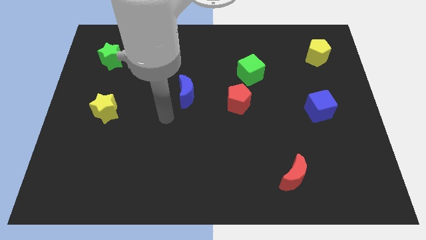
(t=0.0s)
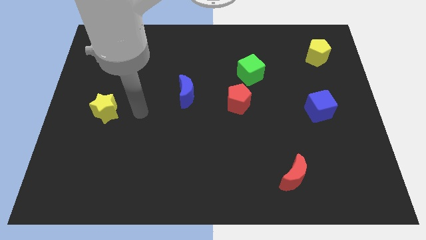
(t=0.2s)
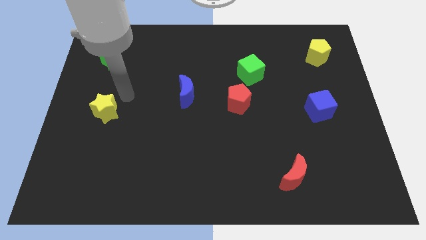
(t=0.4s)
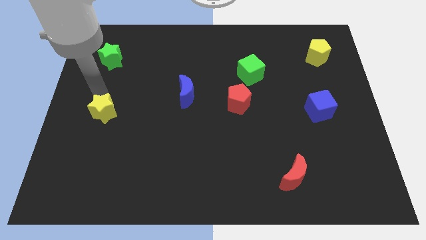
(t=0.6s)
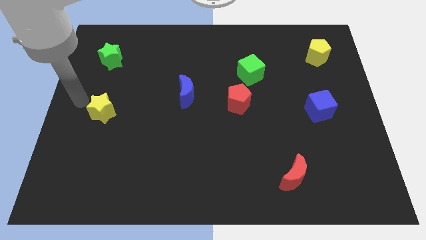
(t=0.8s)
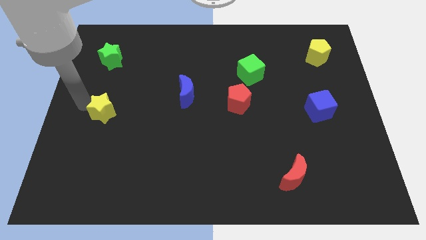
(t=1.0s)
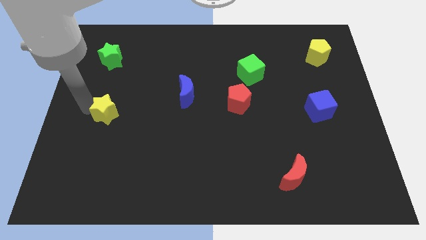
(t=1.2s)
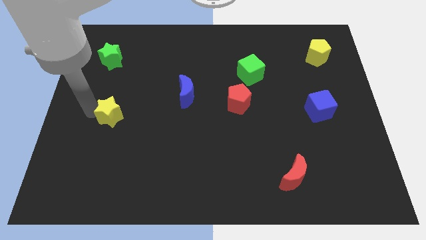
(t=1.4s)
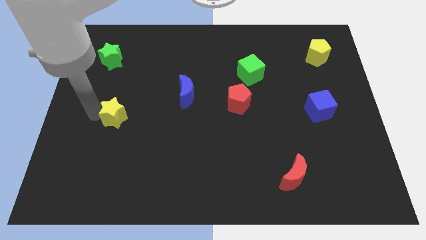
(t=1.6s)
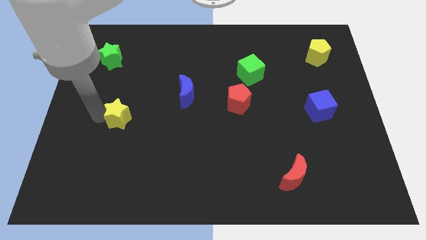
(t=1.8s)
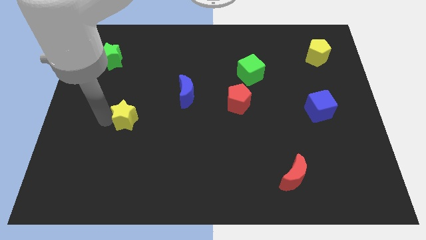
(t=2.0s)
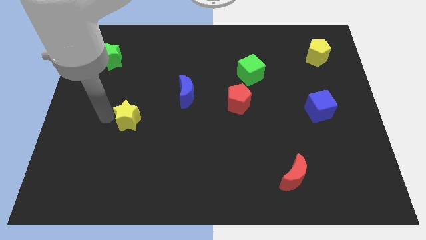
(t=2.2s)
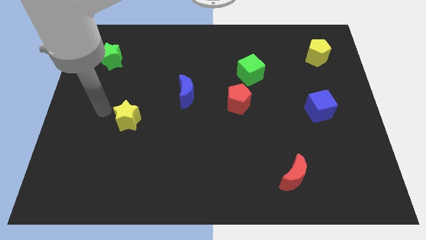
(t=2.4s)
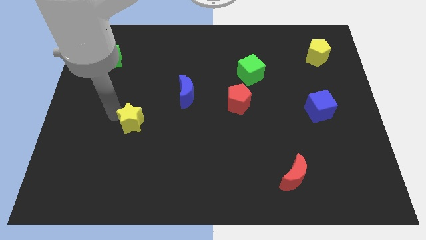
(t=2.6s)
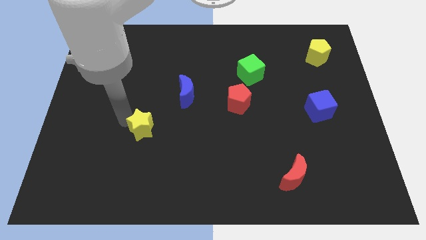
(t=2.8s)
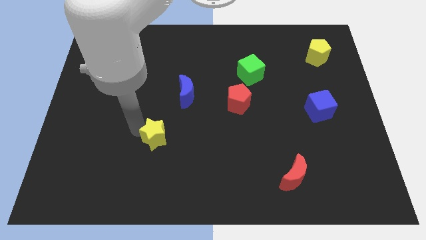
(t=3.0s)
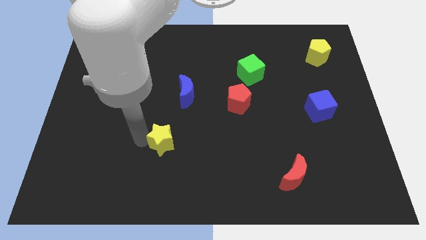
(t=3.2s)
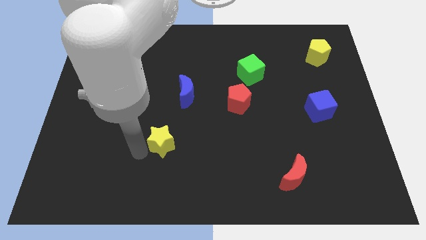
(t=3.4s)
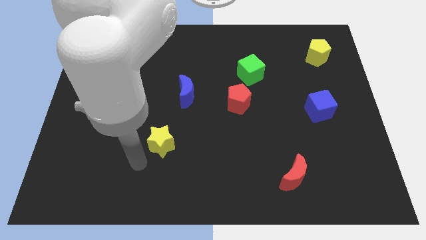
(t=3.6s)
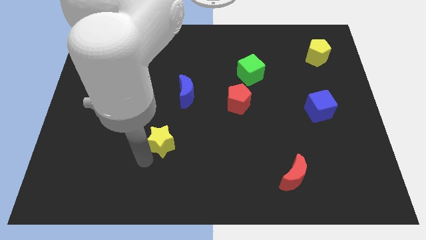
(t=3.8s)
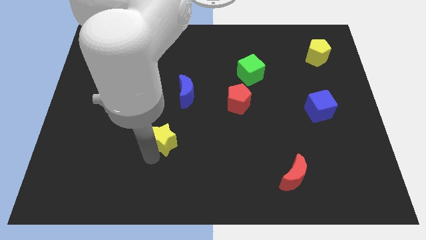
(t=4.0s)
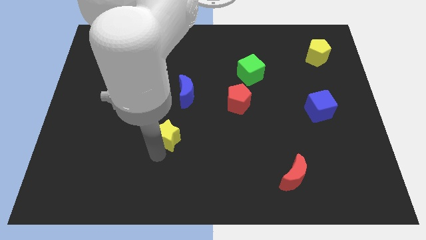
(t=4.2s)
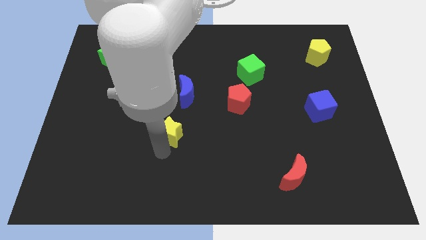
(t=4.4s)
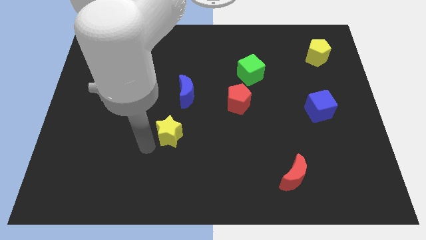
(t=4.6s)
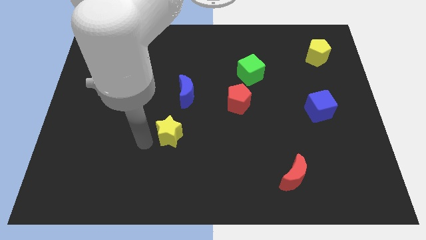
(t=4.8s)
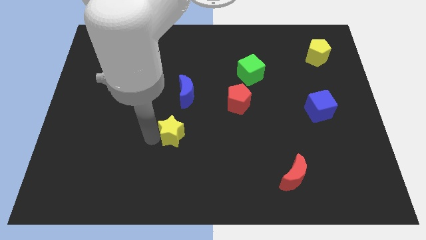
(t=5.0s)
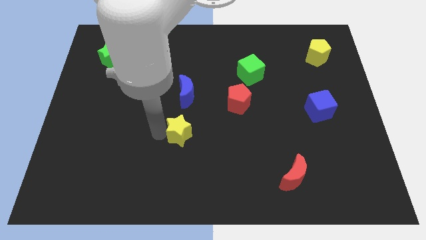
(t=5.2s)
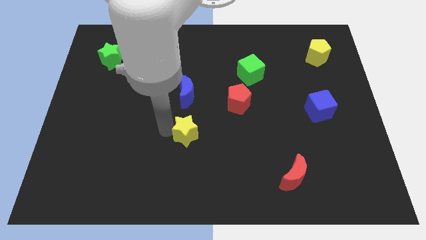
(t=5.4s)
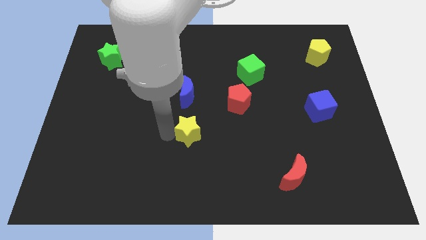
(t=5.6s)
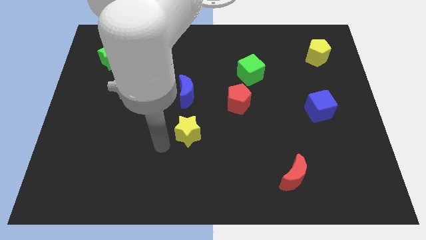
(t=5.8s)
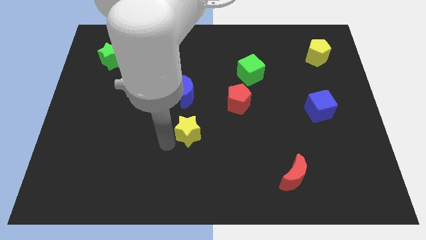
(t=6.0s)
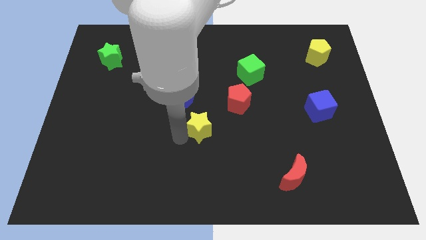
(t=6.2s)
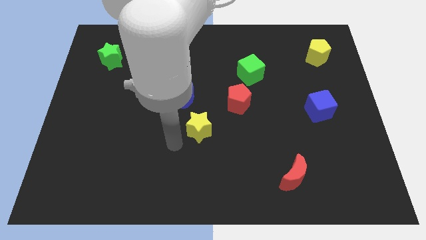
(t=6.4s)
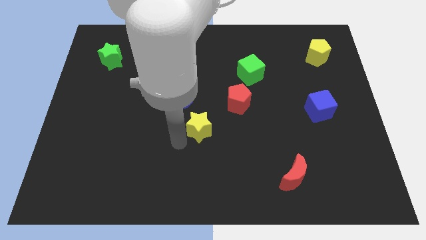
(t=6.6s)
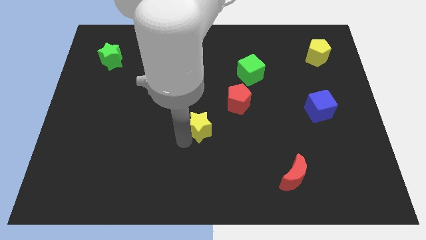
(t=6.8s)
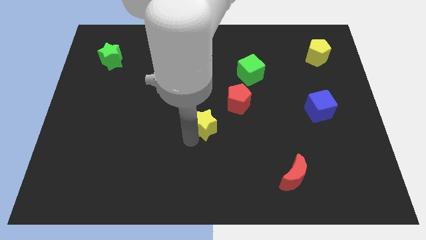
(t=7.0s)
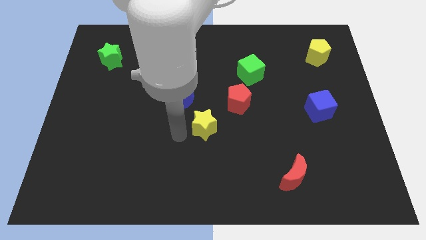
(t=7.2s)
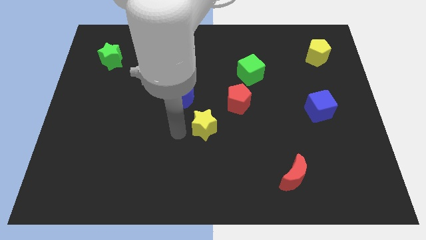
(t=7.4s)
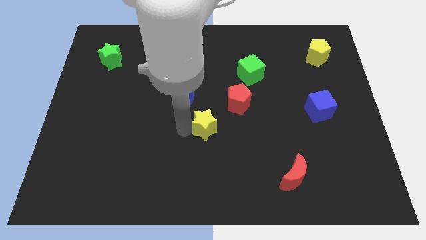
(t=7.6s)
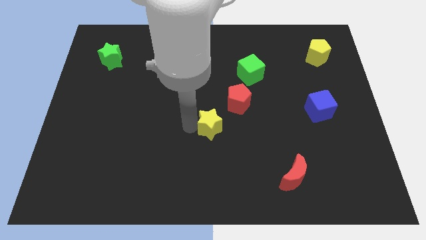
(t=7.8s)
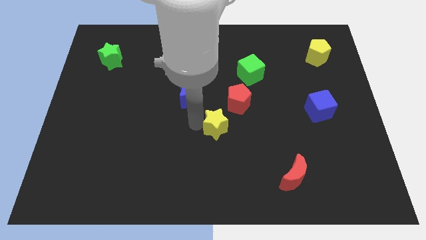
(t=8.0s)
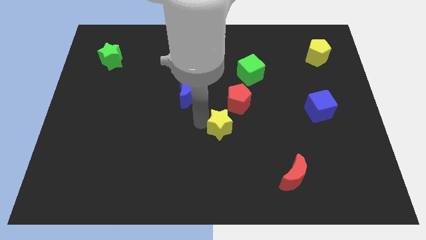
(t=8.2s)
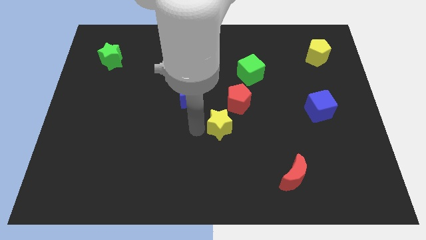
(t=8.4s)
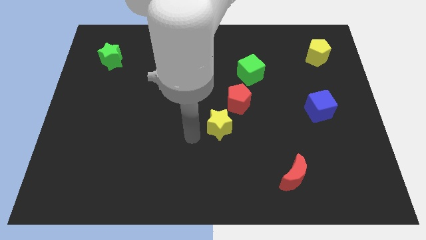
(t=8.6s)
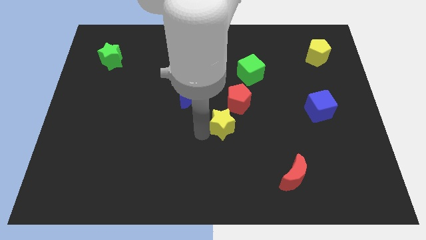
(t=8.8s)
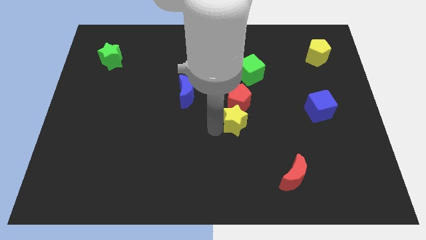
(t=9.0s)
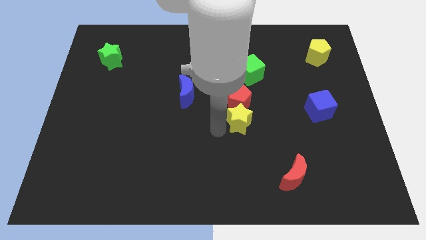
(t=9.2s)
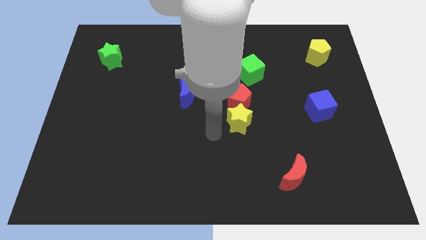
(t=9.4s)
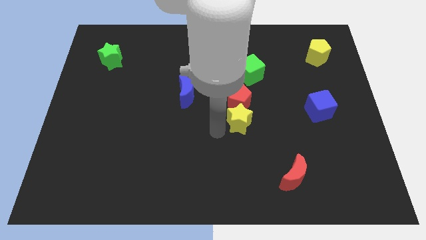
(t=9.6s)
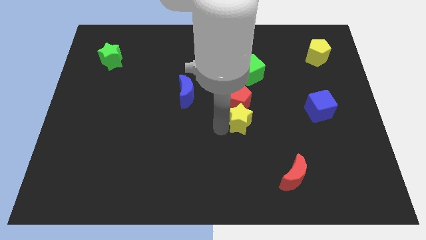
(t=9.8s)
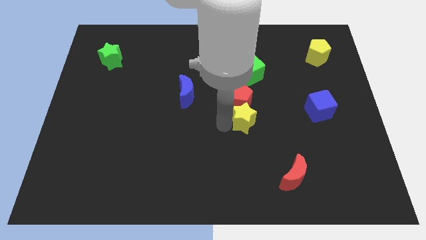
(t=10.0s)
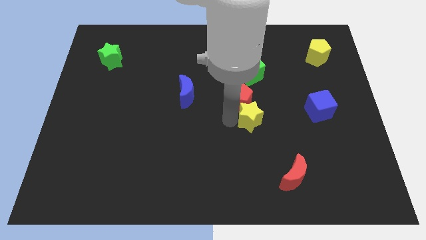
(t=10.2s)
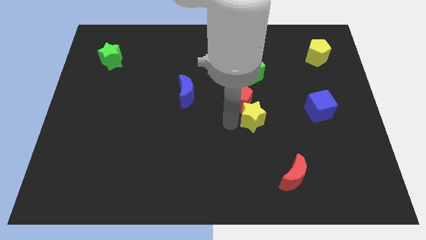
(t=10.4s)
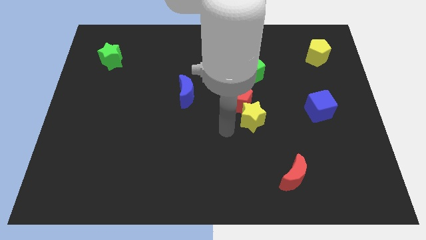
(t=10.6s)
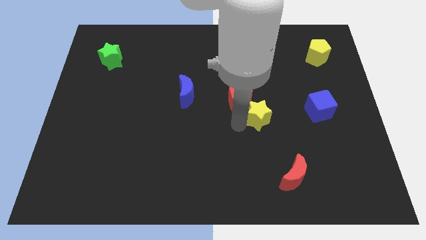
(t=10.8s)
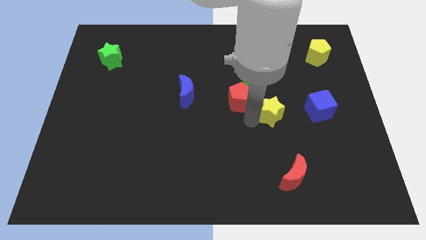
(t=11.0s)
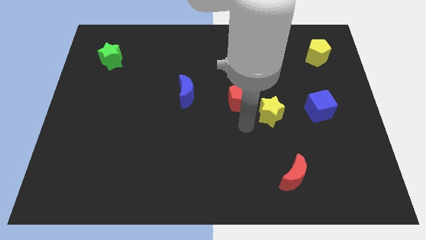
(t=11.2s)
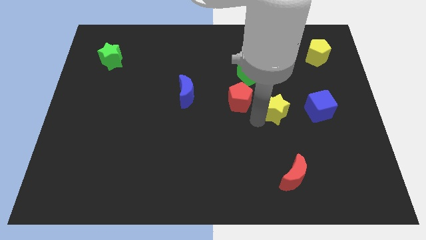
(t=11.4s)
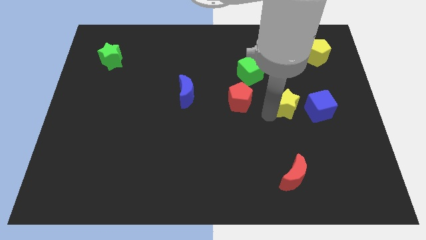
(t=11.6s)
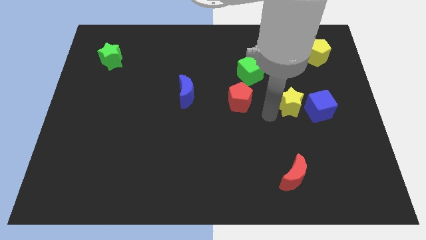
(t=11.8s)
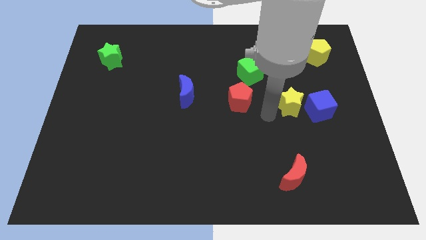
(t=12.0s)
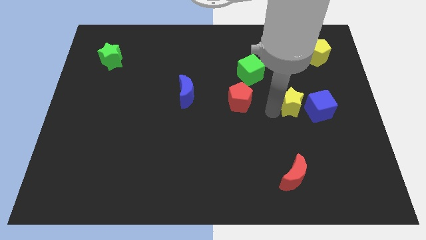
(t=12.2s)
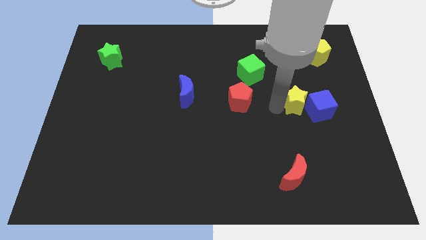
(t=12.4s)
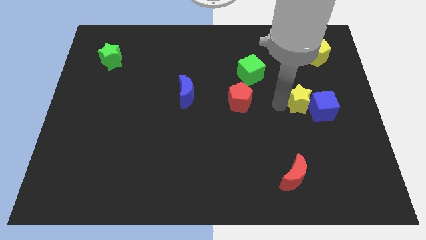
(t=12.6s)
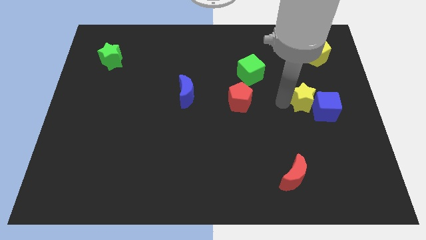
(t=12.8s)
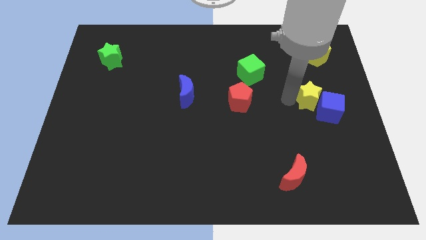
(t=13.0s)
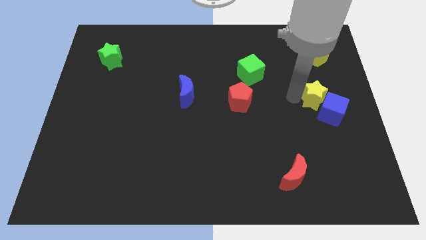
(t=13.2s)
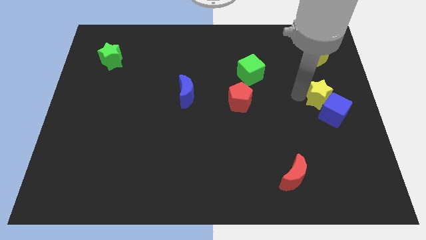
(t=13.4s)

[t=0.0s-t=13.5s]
put the yellow star to the right side

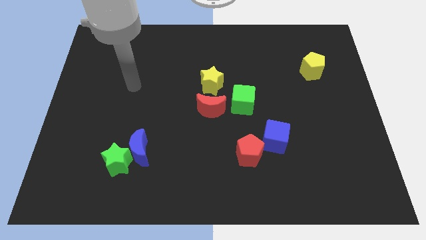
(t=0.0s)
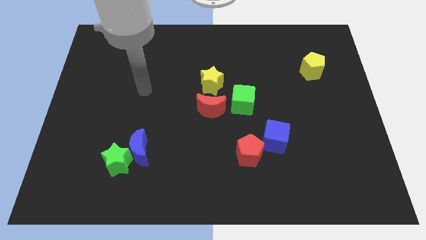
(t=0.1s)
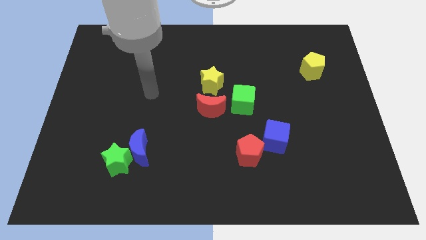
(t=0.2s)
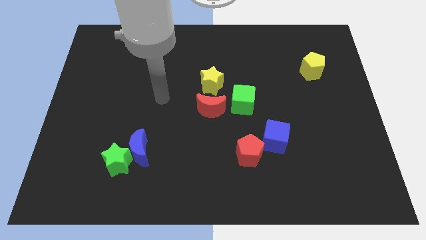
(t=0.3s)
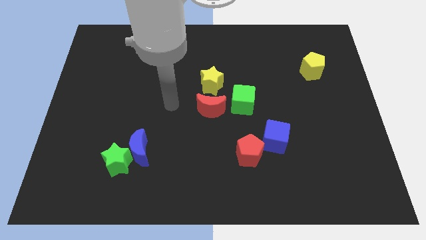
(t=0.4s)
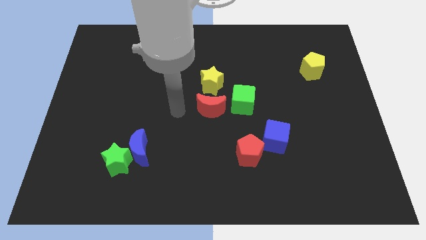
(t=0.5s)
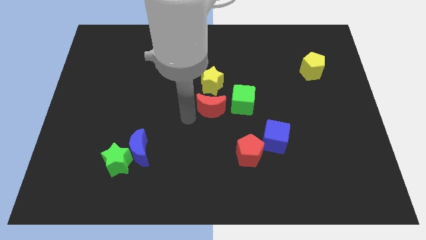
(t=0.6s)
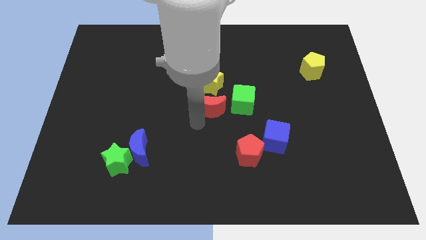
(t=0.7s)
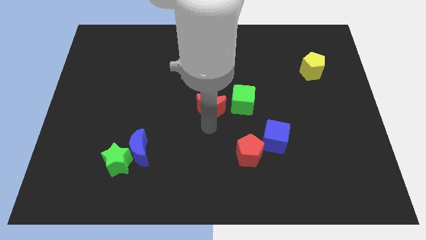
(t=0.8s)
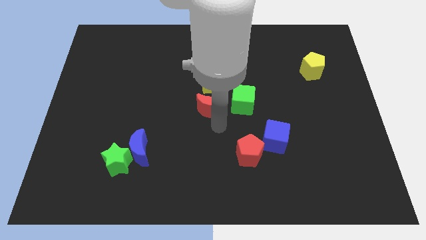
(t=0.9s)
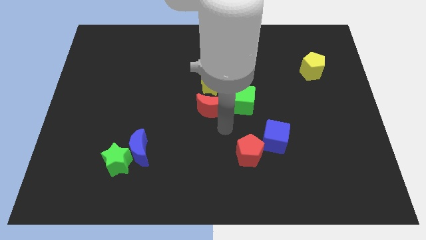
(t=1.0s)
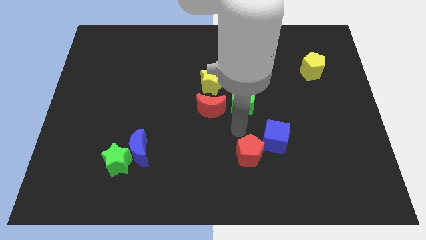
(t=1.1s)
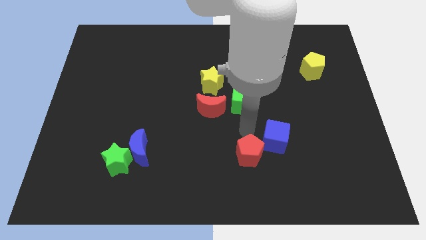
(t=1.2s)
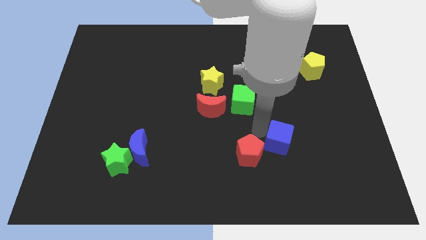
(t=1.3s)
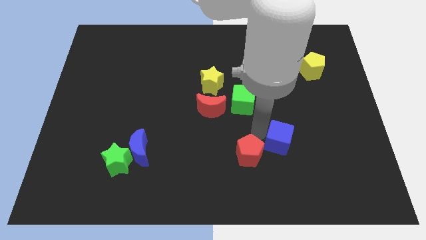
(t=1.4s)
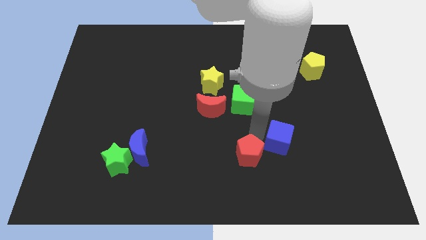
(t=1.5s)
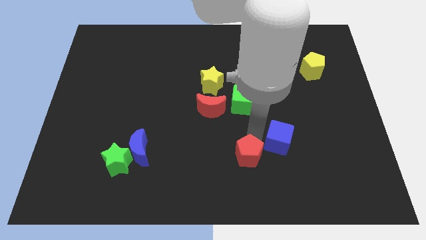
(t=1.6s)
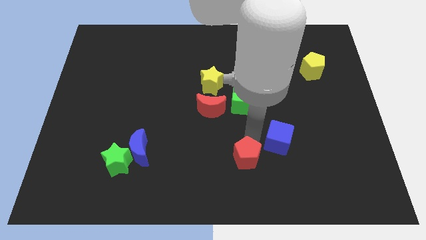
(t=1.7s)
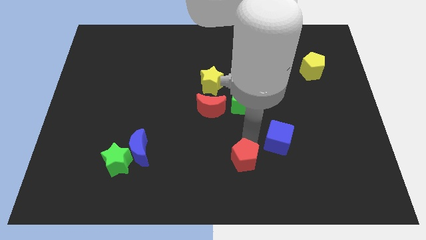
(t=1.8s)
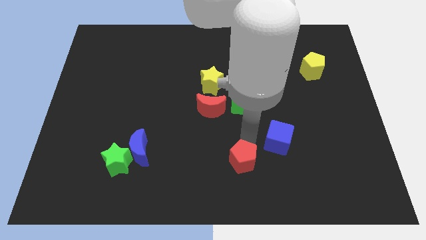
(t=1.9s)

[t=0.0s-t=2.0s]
move the red pentagon to the bottom
